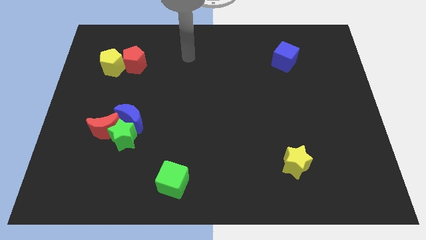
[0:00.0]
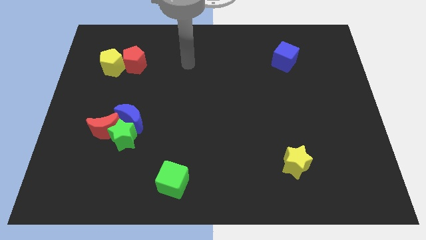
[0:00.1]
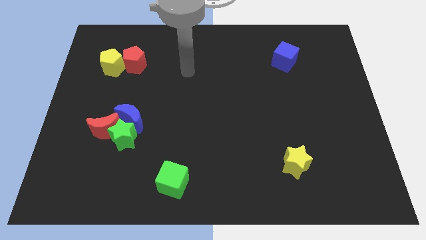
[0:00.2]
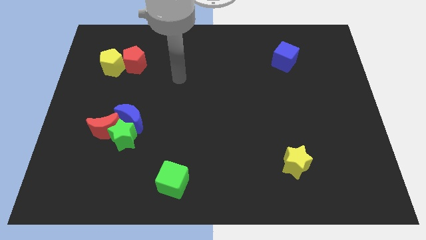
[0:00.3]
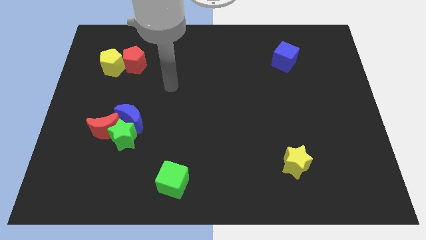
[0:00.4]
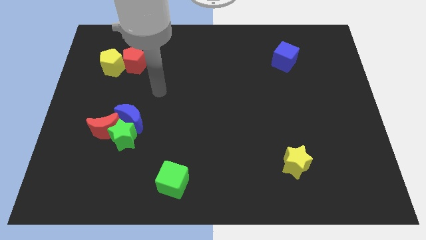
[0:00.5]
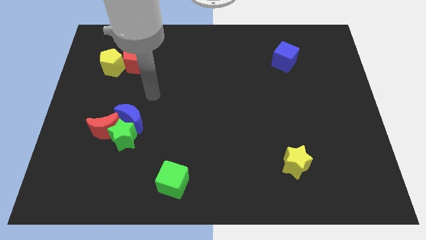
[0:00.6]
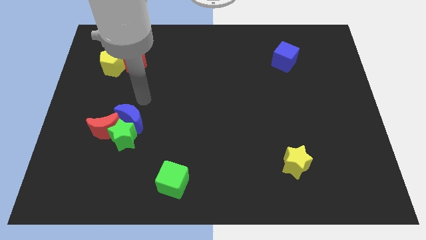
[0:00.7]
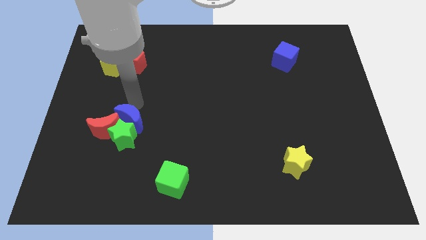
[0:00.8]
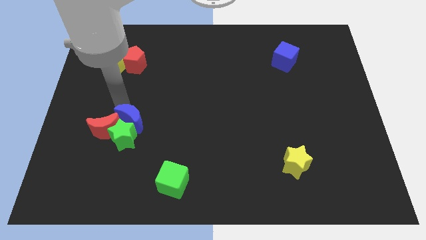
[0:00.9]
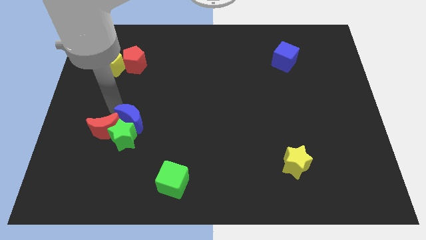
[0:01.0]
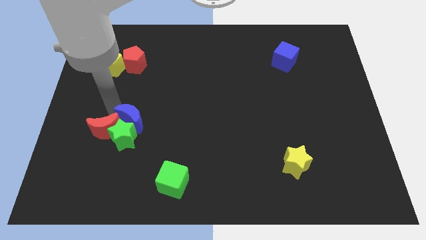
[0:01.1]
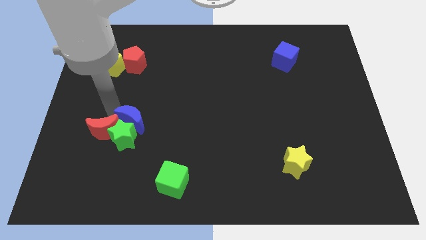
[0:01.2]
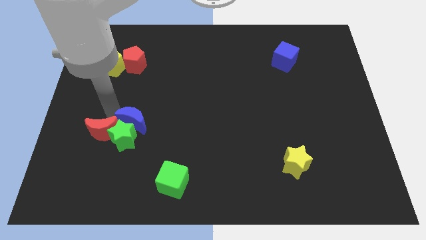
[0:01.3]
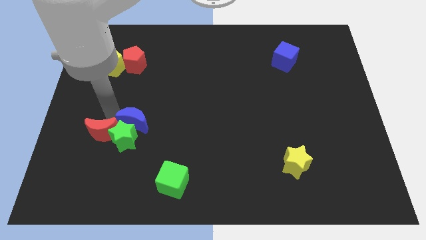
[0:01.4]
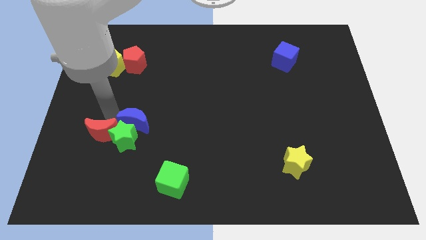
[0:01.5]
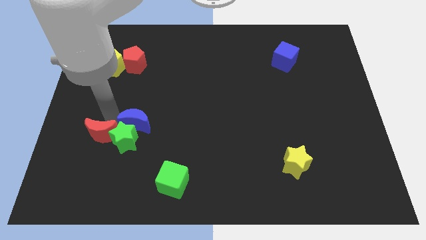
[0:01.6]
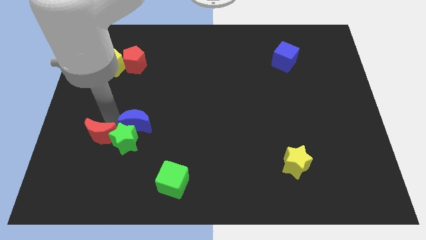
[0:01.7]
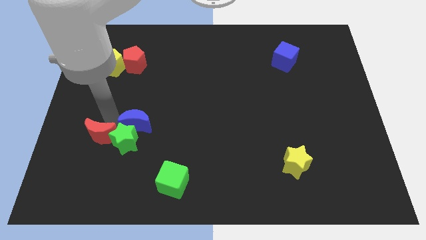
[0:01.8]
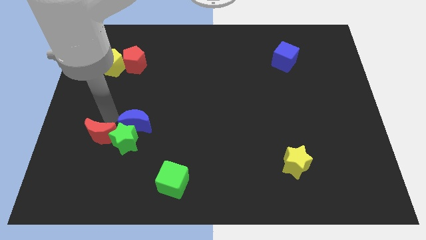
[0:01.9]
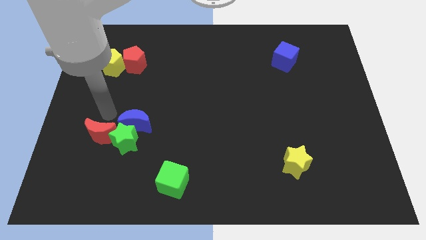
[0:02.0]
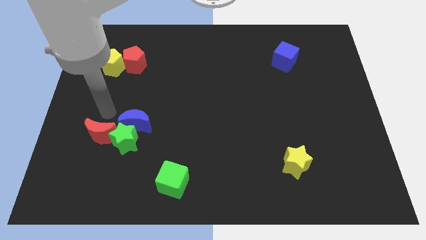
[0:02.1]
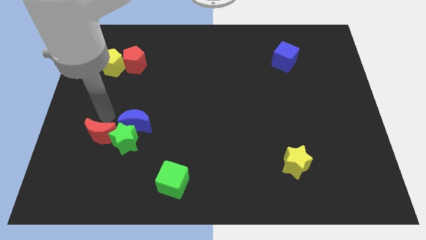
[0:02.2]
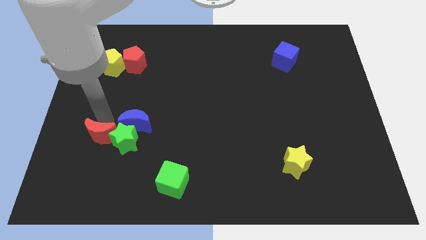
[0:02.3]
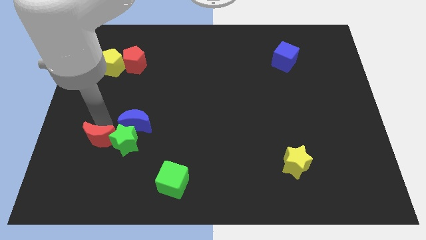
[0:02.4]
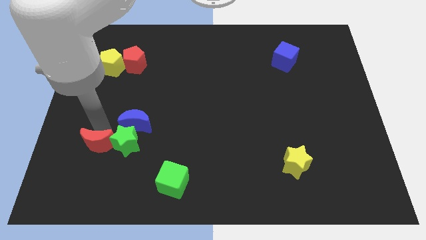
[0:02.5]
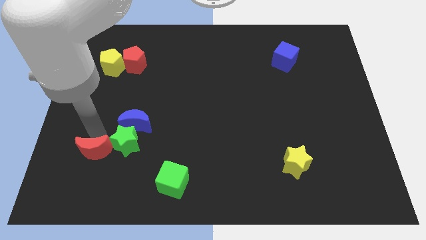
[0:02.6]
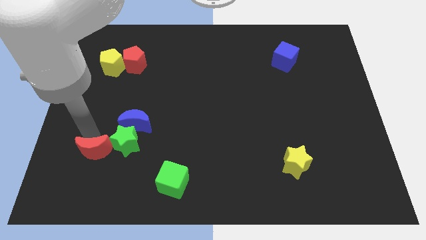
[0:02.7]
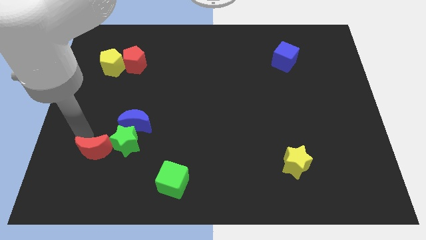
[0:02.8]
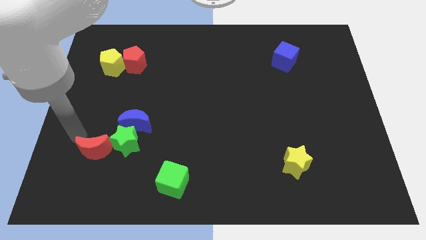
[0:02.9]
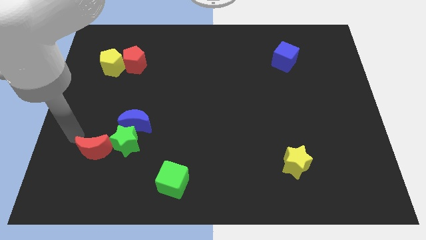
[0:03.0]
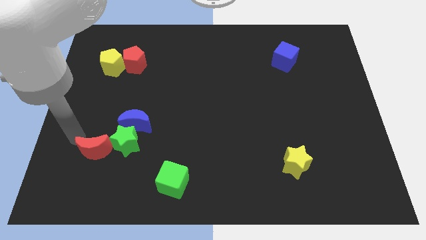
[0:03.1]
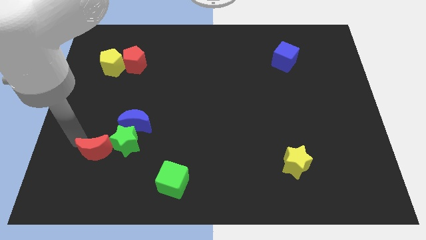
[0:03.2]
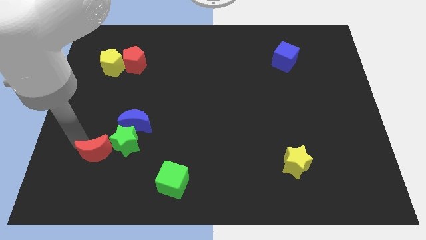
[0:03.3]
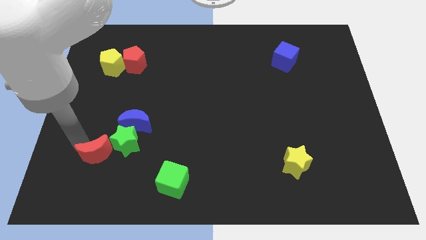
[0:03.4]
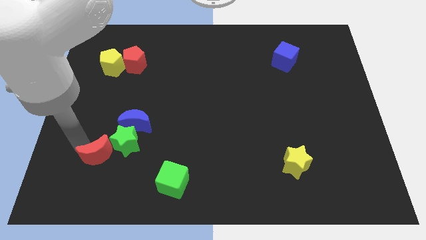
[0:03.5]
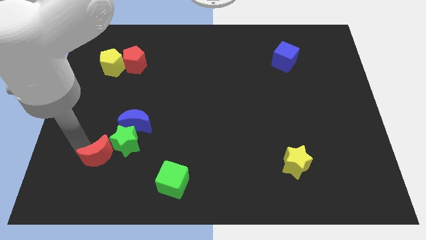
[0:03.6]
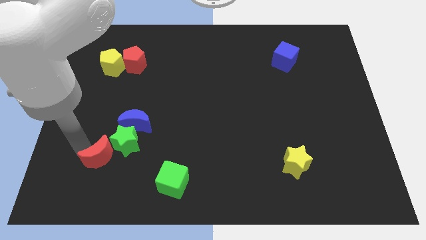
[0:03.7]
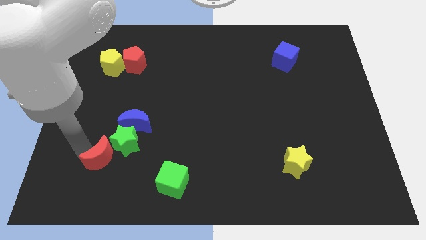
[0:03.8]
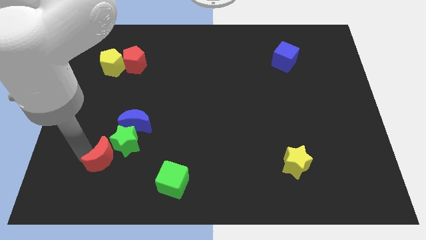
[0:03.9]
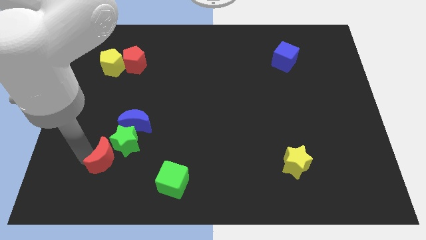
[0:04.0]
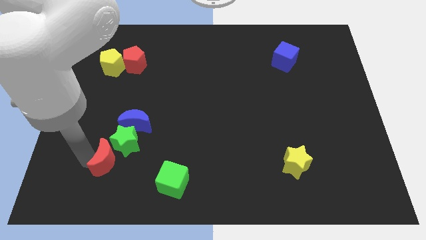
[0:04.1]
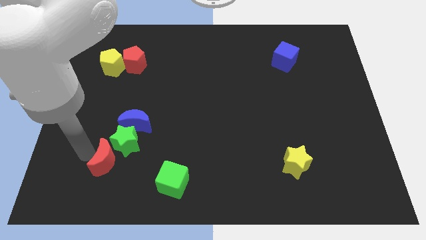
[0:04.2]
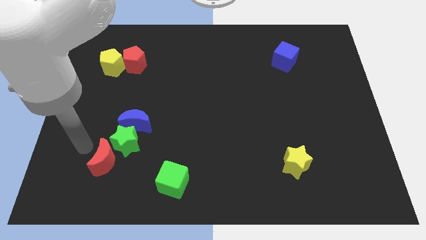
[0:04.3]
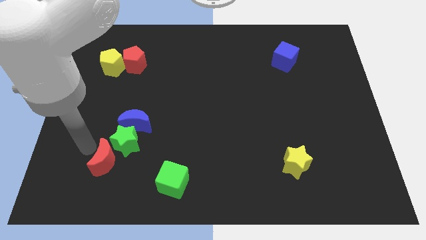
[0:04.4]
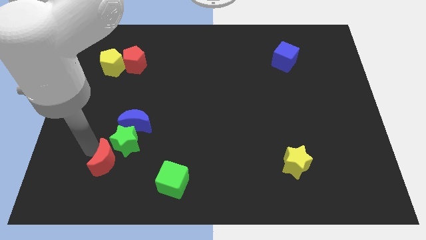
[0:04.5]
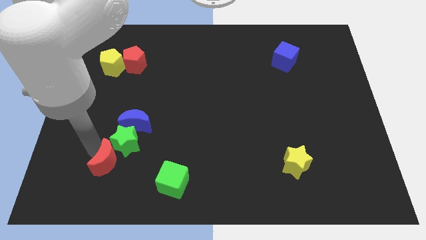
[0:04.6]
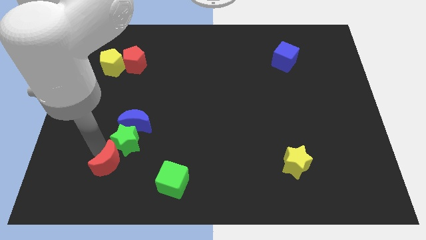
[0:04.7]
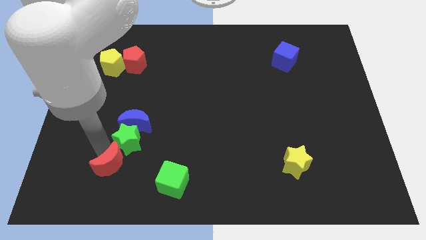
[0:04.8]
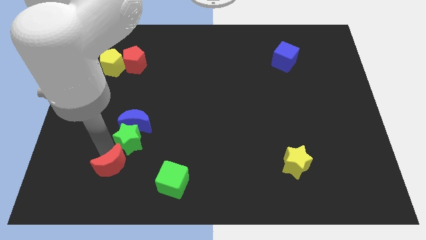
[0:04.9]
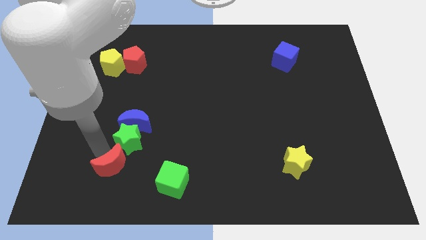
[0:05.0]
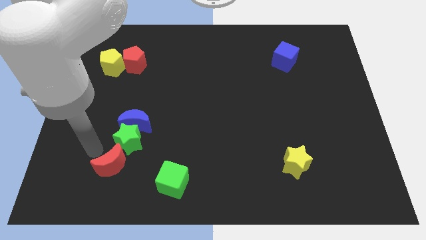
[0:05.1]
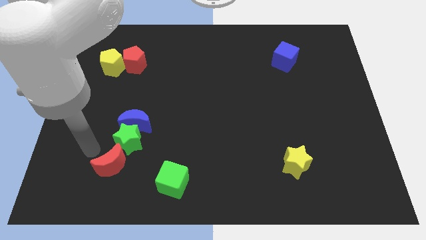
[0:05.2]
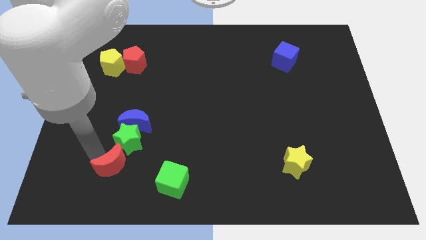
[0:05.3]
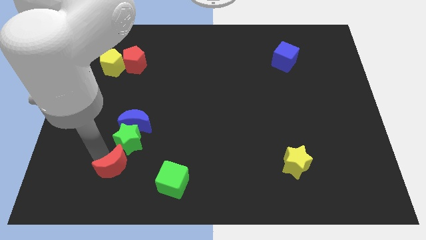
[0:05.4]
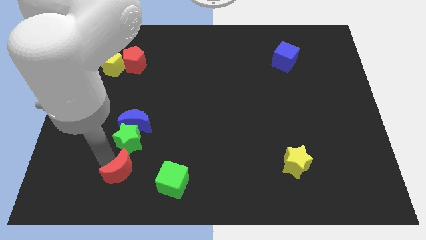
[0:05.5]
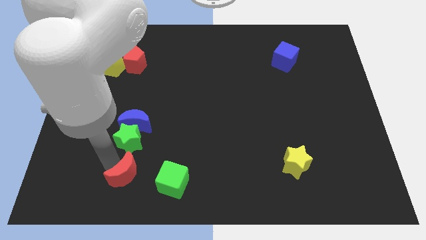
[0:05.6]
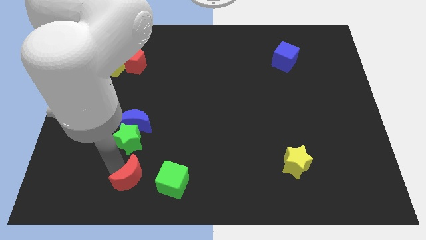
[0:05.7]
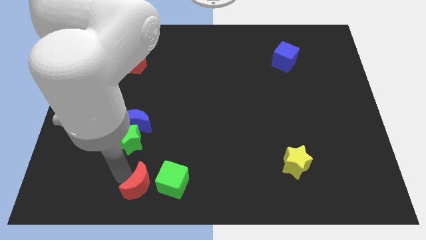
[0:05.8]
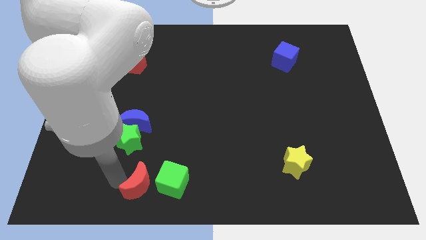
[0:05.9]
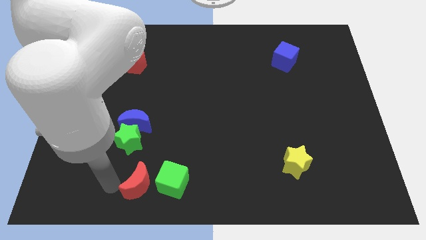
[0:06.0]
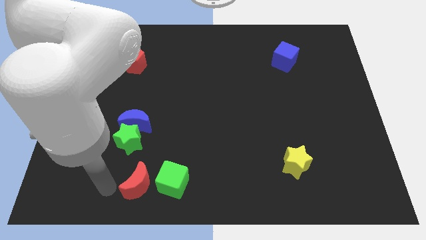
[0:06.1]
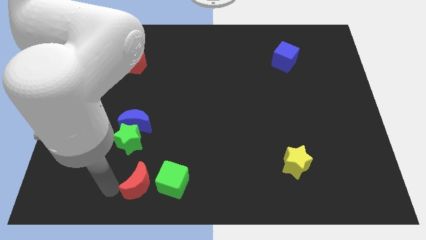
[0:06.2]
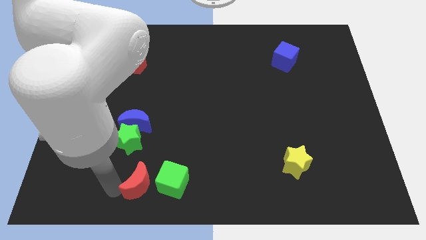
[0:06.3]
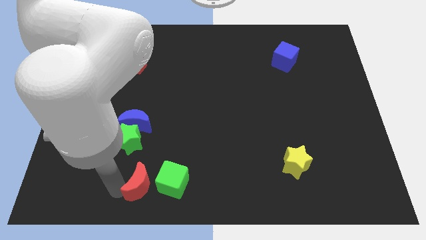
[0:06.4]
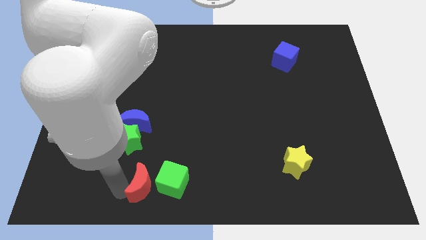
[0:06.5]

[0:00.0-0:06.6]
move the red moon next to the green cube

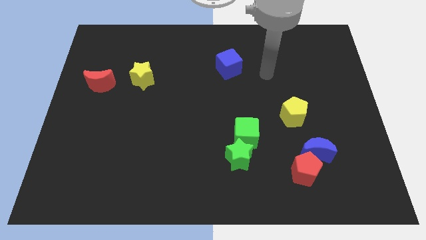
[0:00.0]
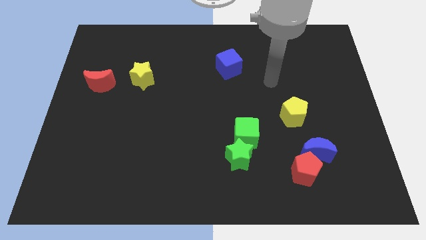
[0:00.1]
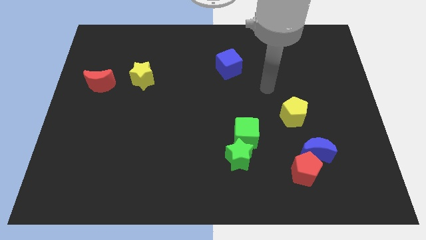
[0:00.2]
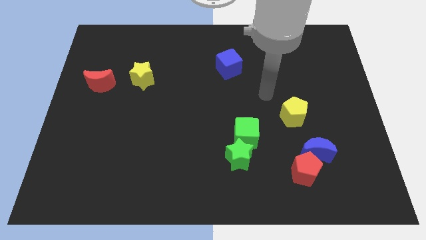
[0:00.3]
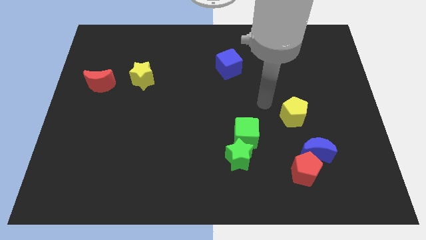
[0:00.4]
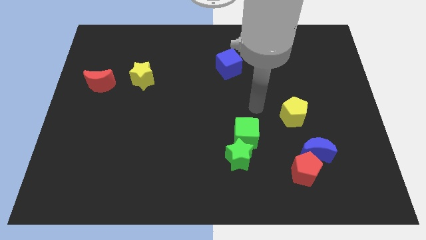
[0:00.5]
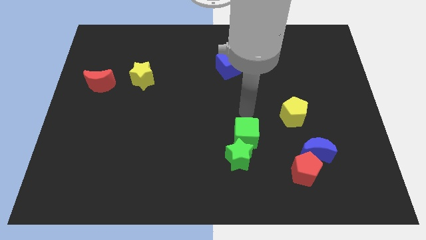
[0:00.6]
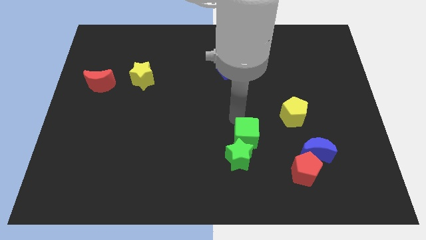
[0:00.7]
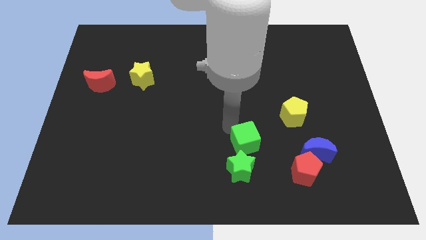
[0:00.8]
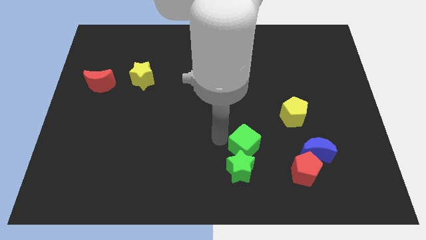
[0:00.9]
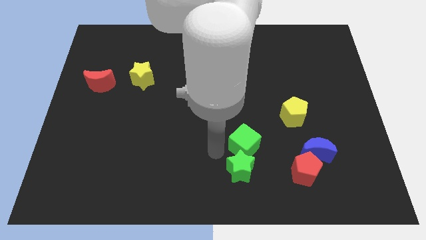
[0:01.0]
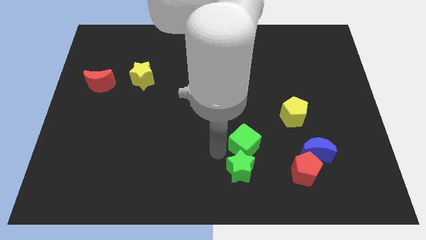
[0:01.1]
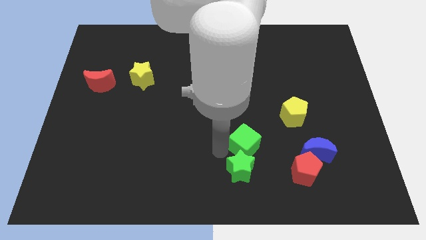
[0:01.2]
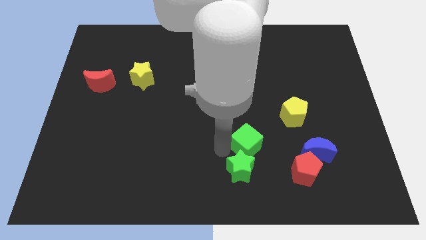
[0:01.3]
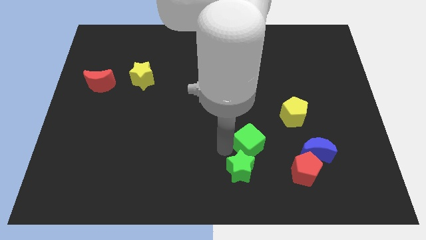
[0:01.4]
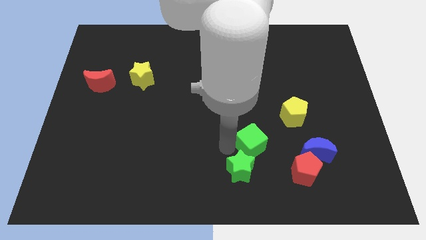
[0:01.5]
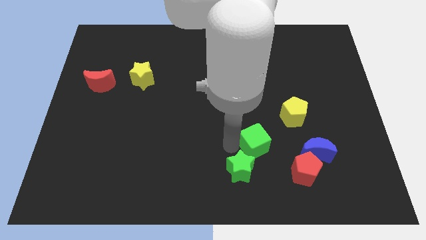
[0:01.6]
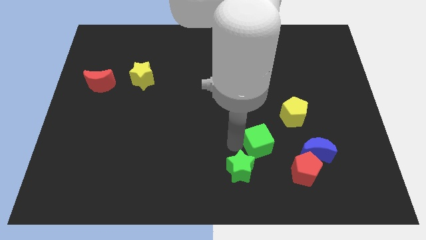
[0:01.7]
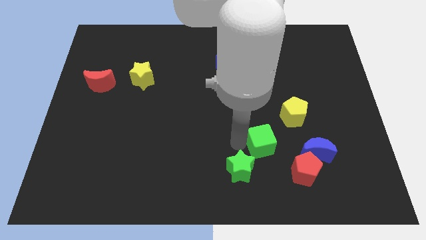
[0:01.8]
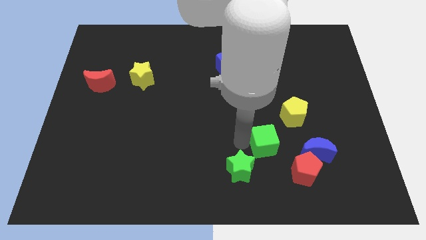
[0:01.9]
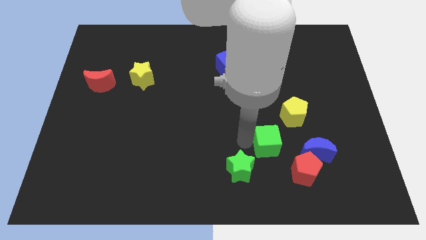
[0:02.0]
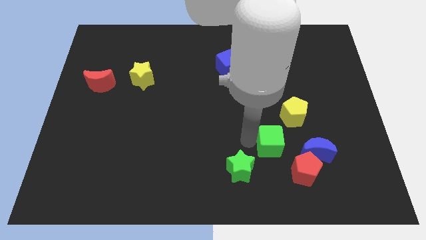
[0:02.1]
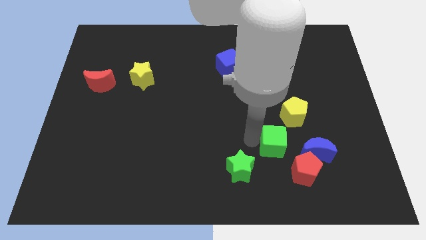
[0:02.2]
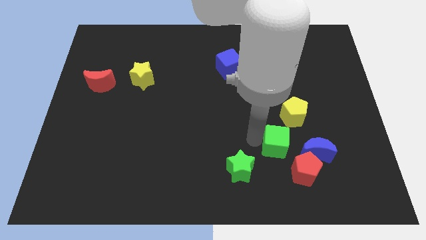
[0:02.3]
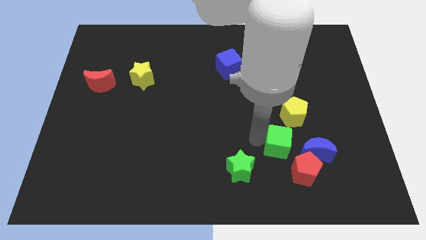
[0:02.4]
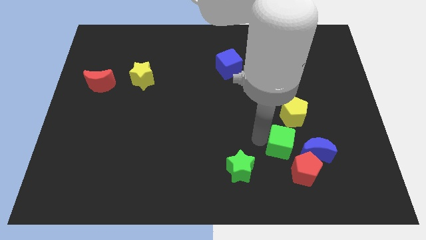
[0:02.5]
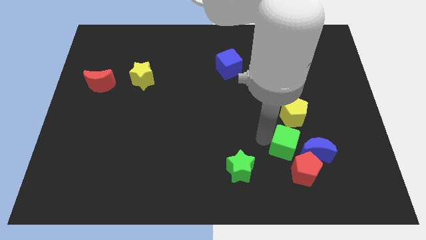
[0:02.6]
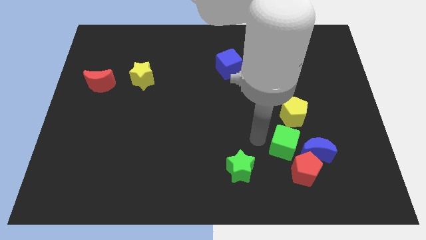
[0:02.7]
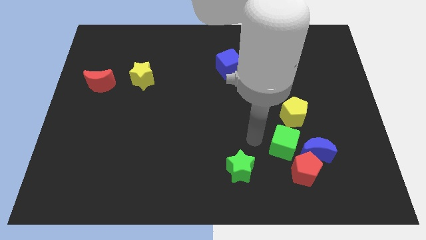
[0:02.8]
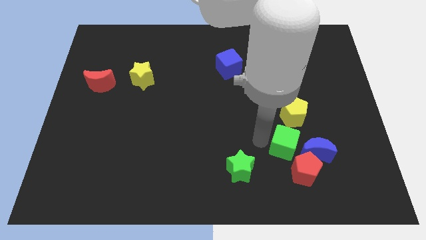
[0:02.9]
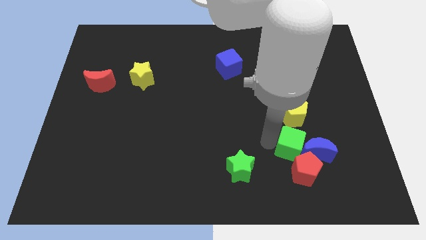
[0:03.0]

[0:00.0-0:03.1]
put the green cube to the blue moon
